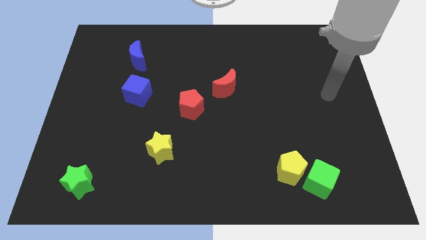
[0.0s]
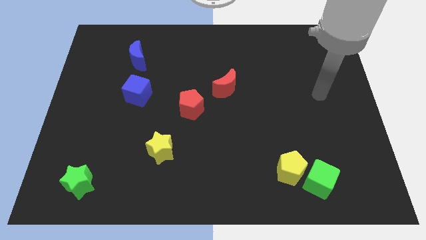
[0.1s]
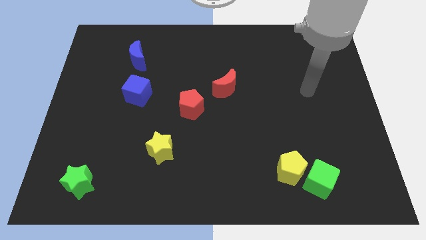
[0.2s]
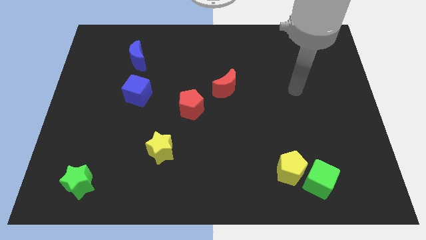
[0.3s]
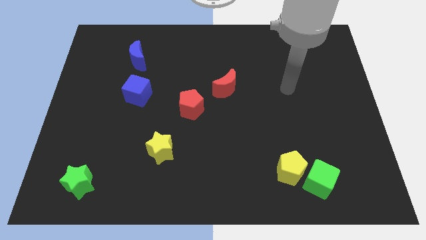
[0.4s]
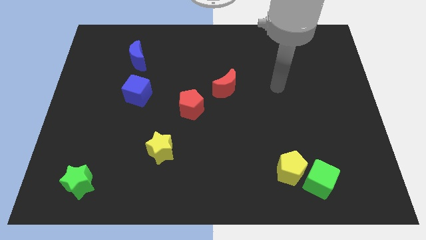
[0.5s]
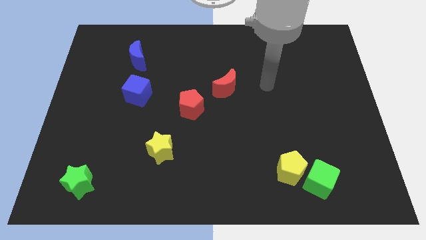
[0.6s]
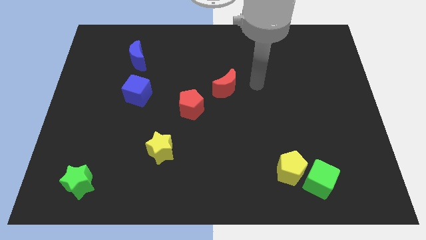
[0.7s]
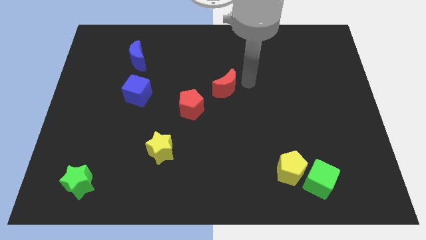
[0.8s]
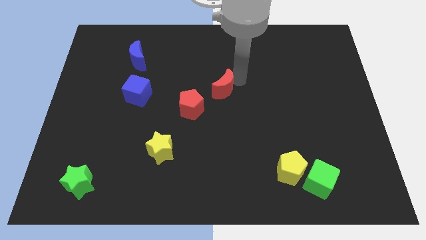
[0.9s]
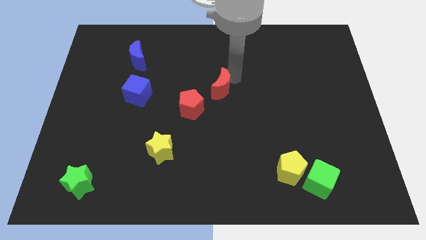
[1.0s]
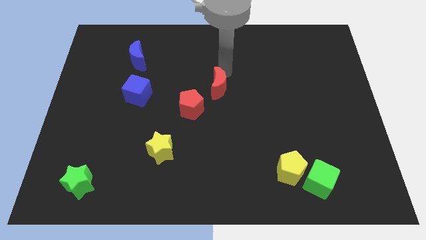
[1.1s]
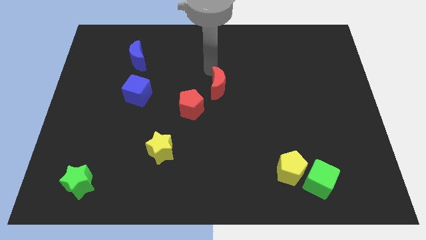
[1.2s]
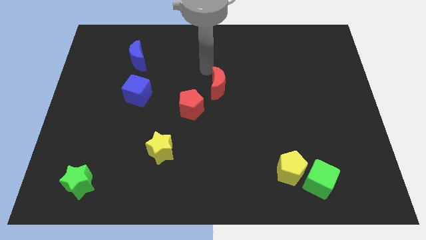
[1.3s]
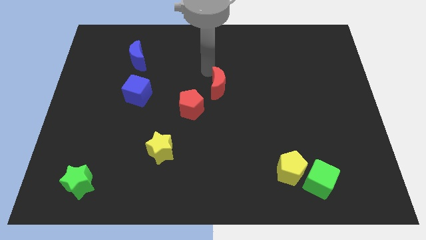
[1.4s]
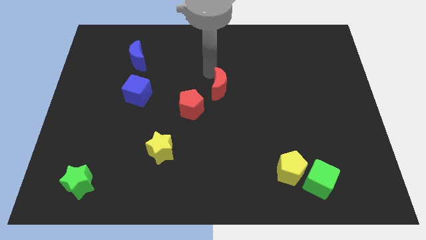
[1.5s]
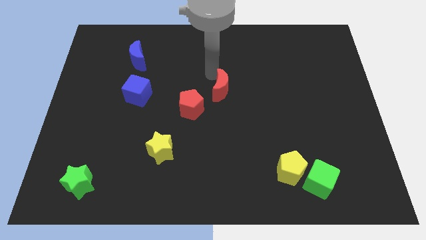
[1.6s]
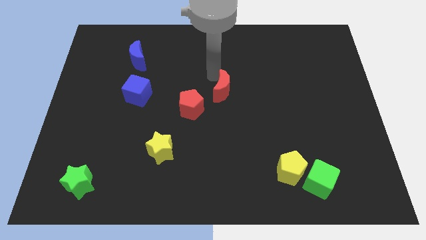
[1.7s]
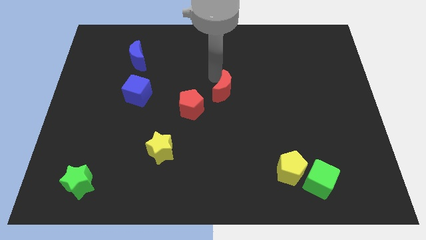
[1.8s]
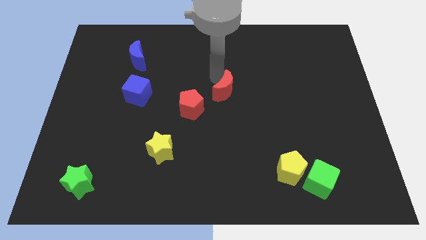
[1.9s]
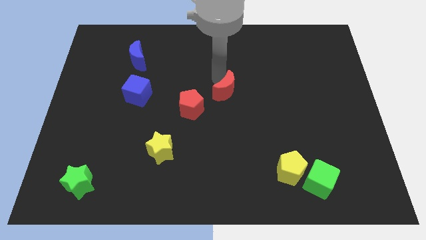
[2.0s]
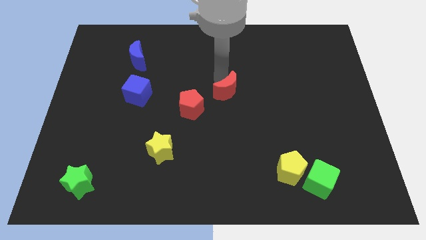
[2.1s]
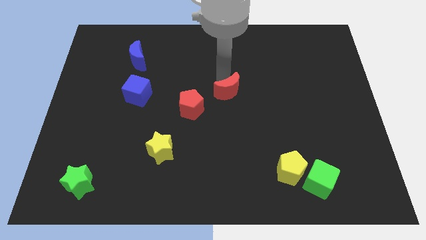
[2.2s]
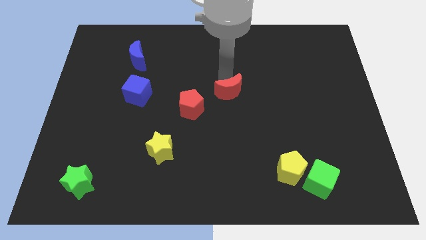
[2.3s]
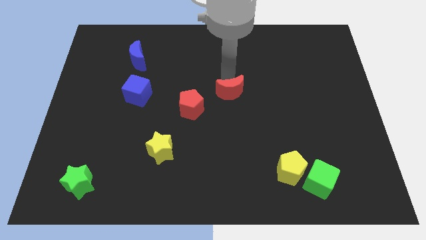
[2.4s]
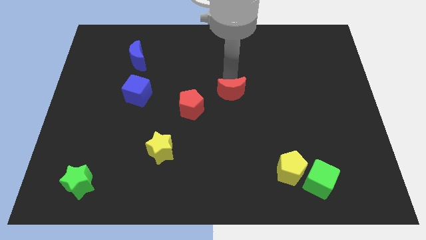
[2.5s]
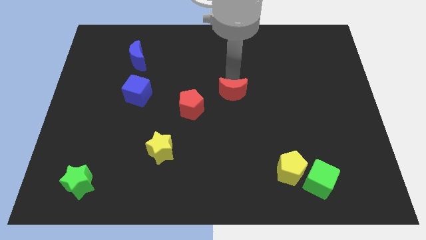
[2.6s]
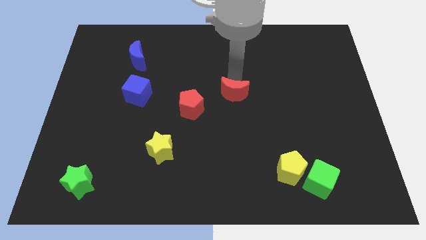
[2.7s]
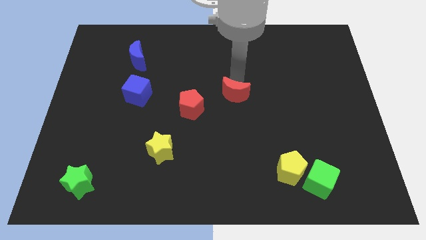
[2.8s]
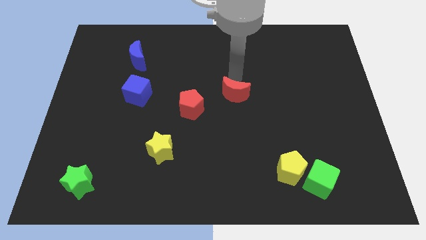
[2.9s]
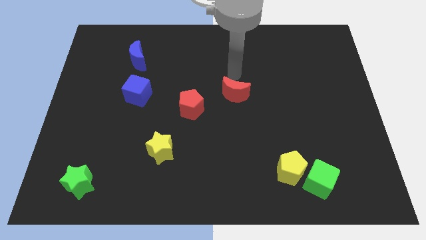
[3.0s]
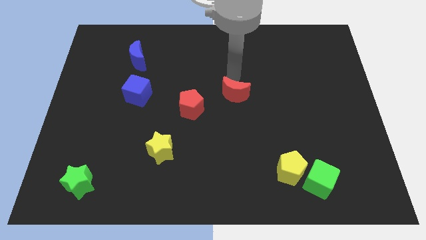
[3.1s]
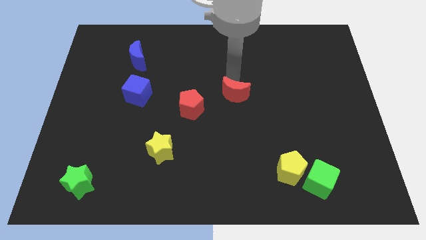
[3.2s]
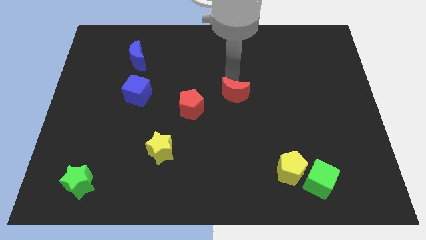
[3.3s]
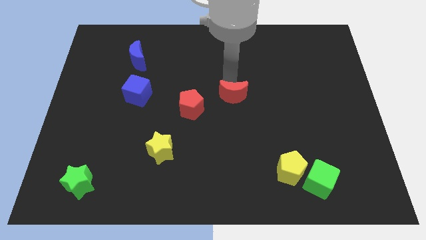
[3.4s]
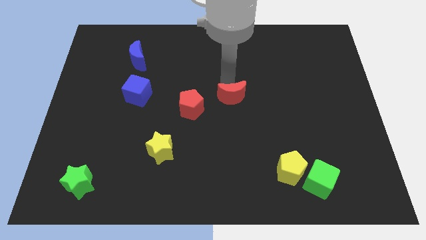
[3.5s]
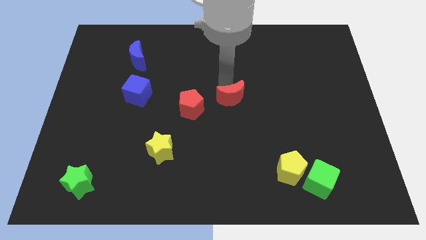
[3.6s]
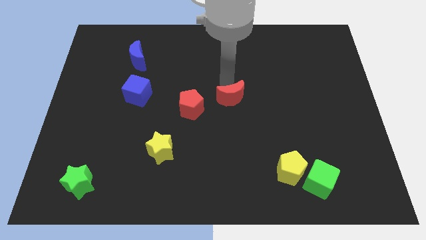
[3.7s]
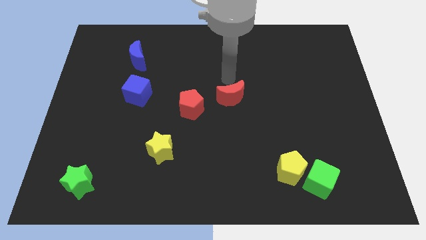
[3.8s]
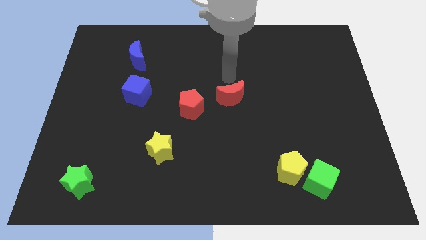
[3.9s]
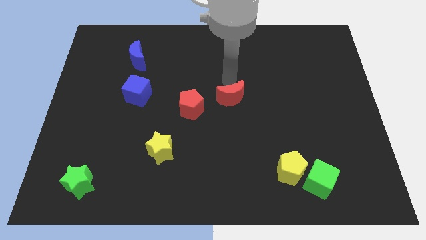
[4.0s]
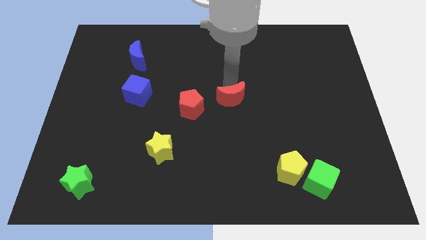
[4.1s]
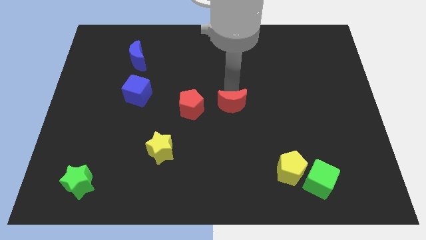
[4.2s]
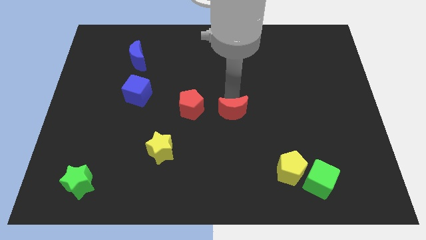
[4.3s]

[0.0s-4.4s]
push the red moon down a bit

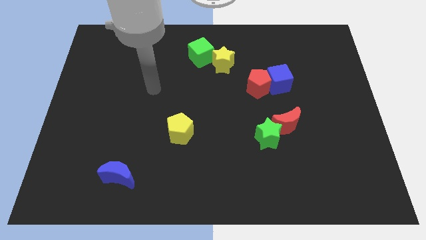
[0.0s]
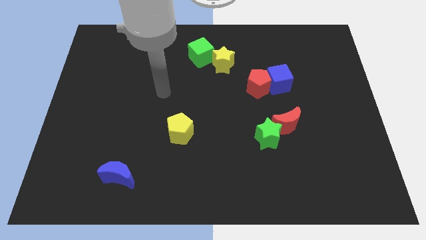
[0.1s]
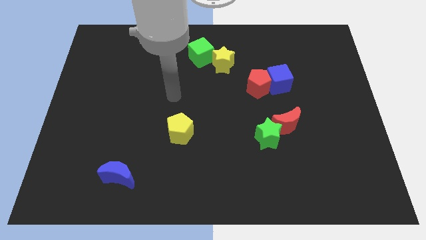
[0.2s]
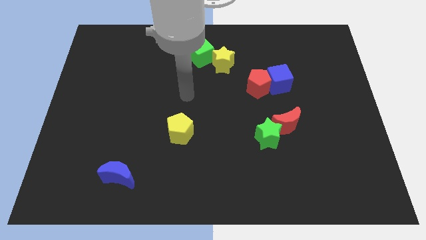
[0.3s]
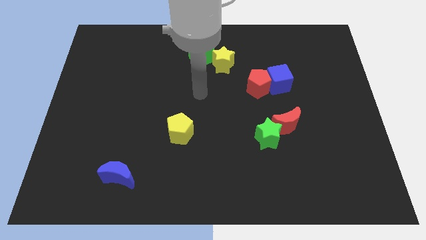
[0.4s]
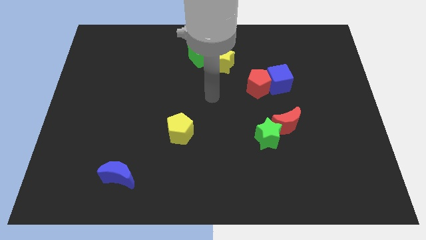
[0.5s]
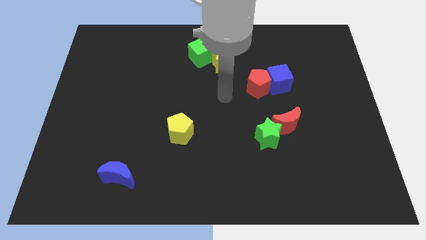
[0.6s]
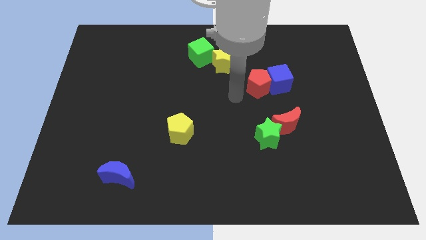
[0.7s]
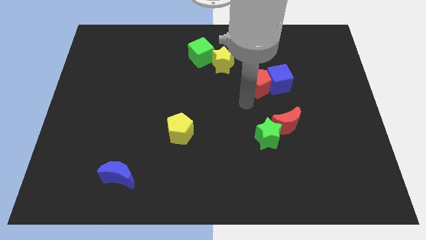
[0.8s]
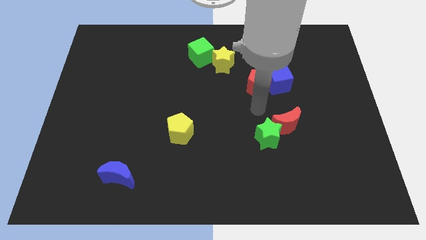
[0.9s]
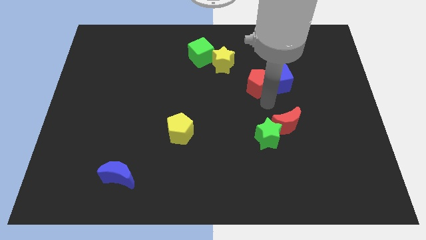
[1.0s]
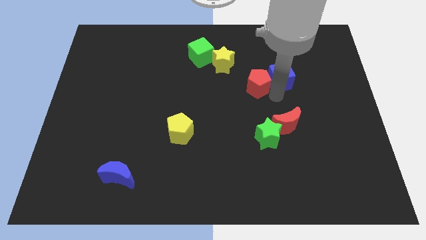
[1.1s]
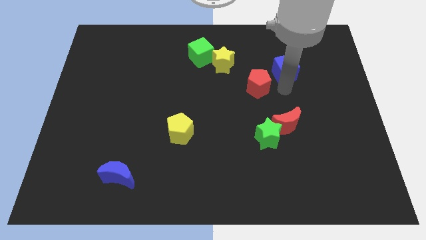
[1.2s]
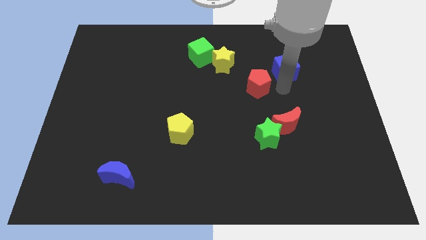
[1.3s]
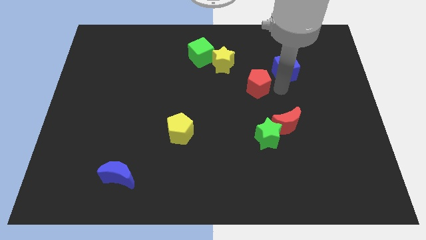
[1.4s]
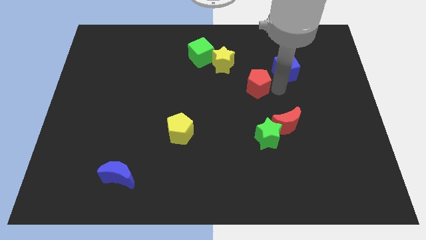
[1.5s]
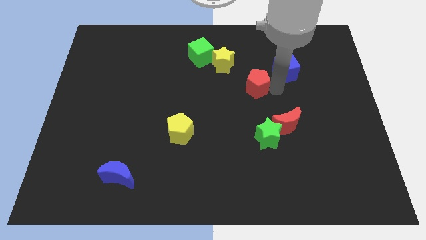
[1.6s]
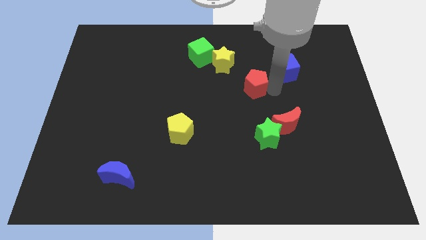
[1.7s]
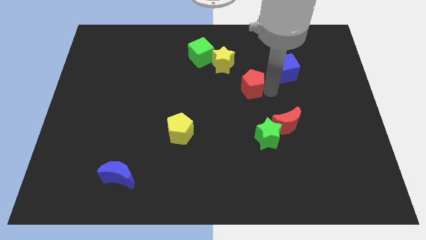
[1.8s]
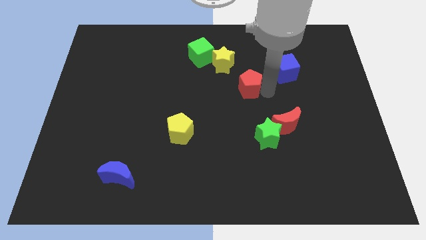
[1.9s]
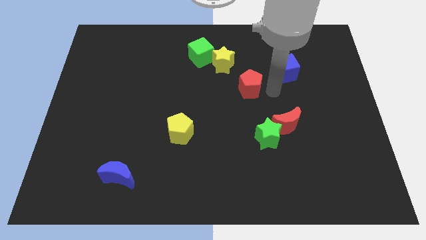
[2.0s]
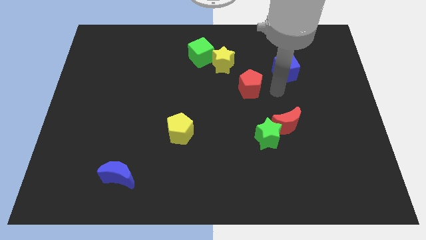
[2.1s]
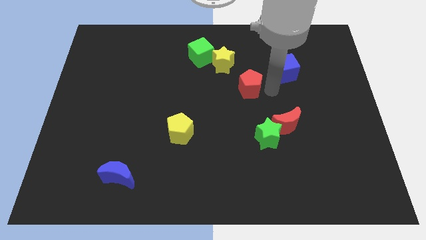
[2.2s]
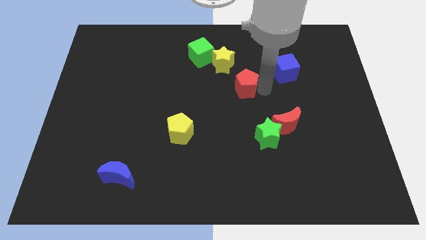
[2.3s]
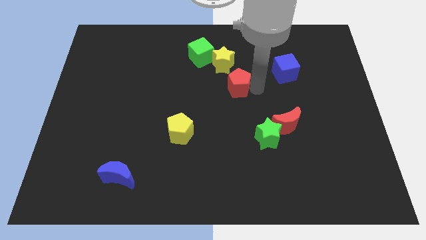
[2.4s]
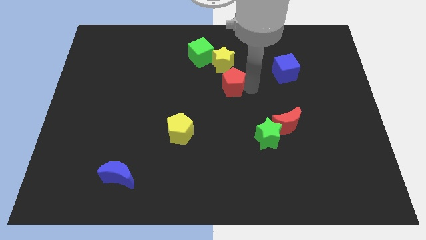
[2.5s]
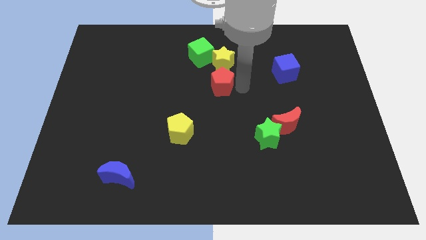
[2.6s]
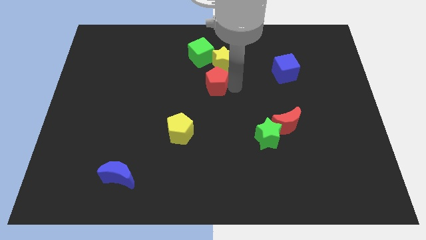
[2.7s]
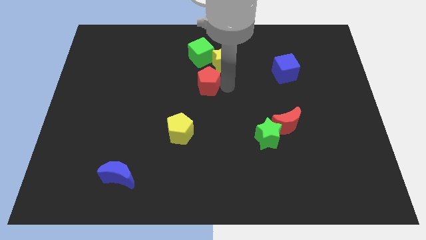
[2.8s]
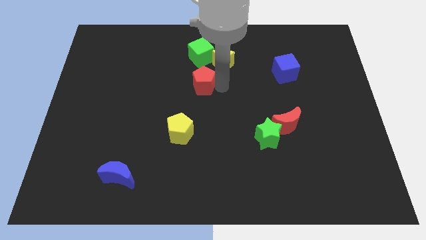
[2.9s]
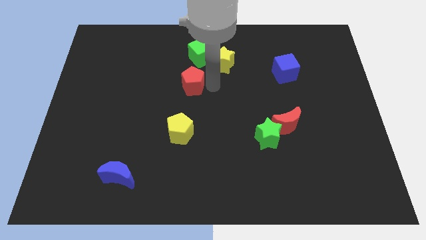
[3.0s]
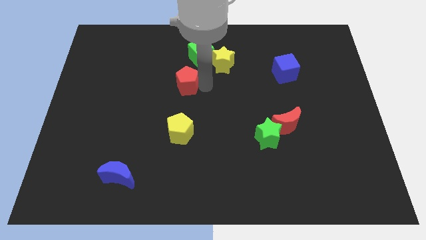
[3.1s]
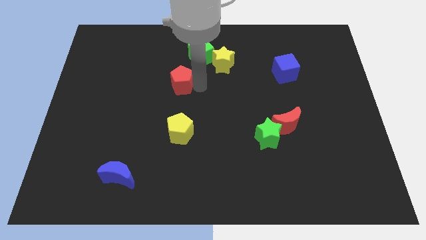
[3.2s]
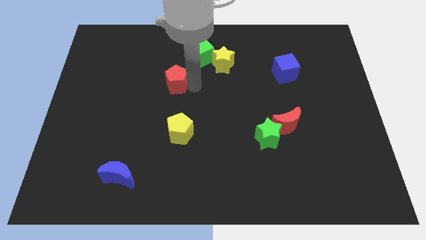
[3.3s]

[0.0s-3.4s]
push the red pentagon to the left

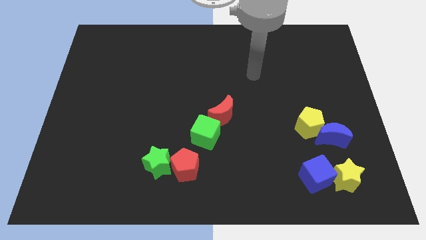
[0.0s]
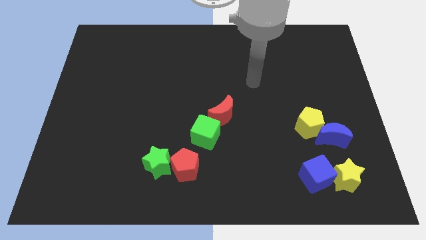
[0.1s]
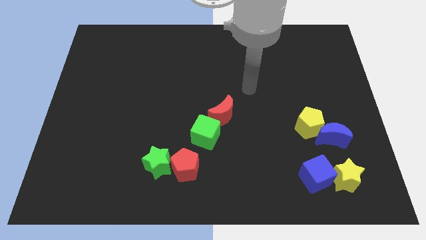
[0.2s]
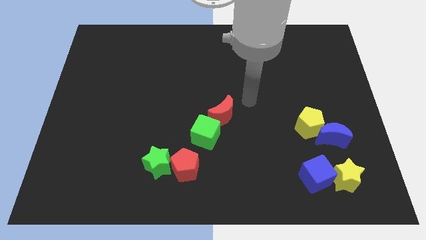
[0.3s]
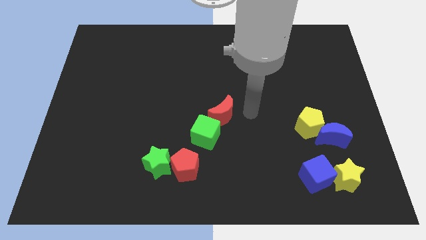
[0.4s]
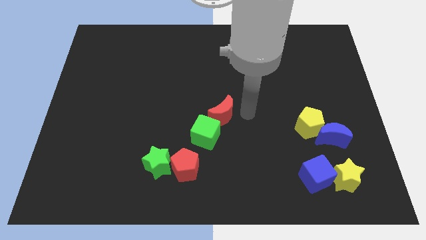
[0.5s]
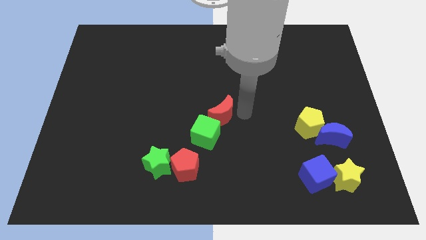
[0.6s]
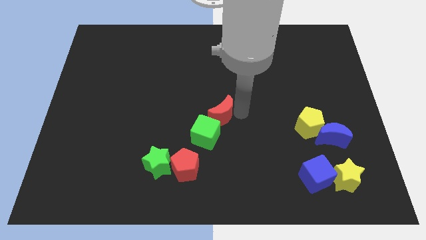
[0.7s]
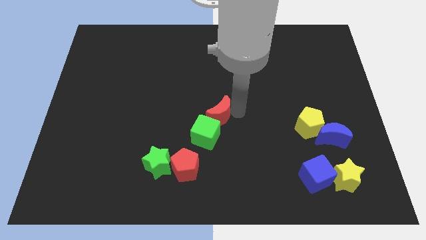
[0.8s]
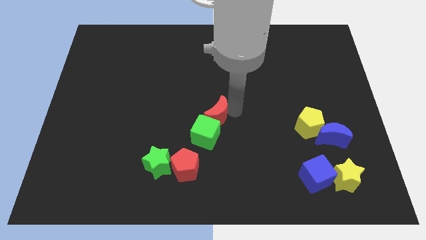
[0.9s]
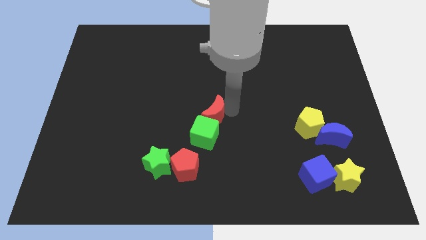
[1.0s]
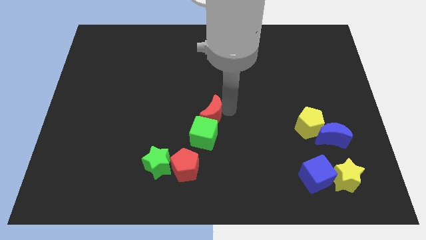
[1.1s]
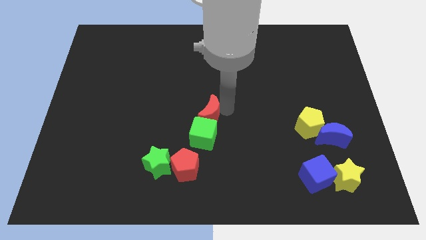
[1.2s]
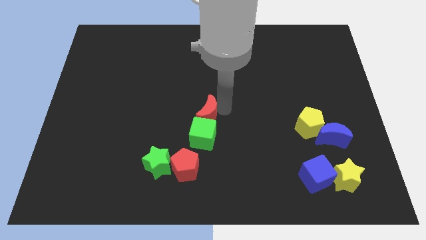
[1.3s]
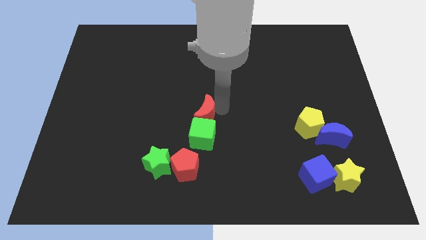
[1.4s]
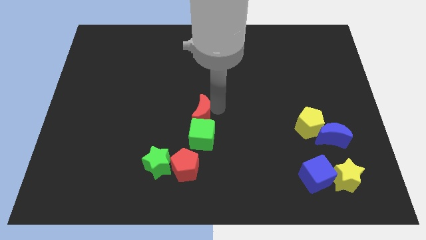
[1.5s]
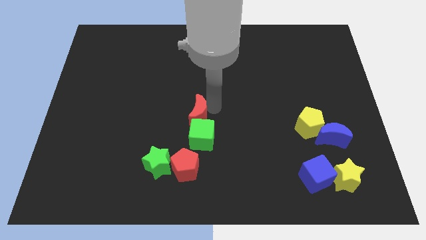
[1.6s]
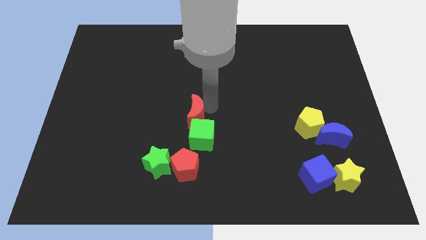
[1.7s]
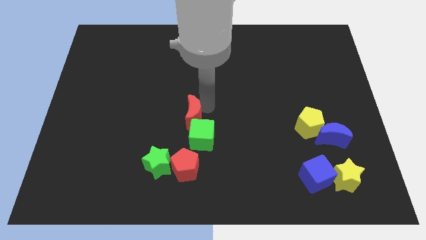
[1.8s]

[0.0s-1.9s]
slide the red moon left a little
